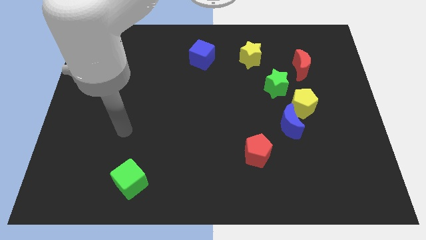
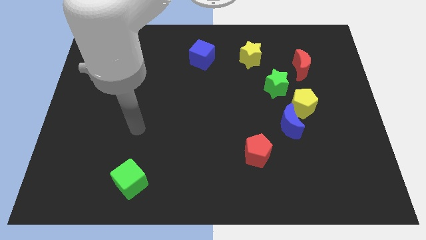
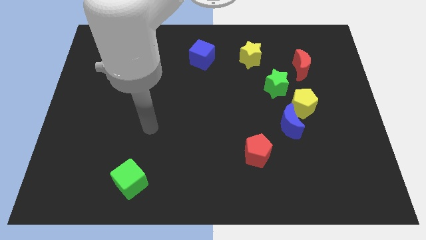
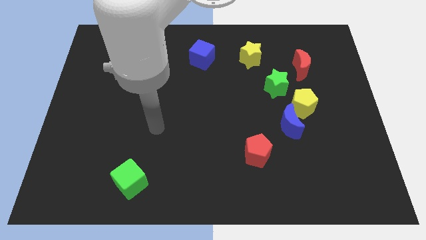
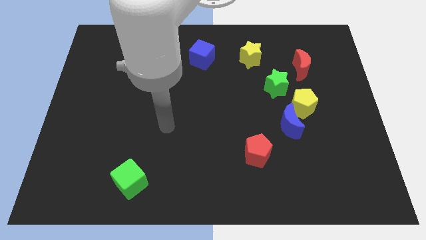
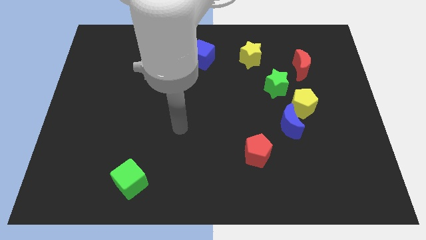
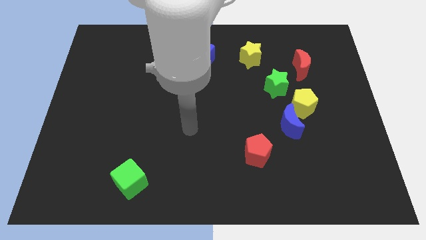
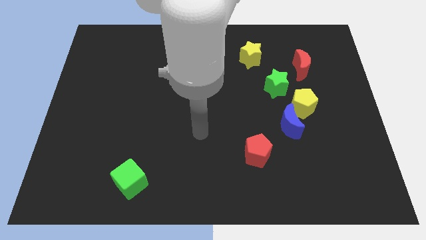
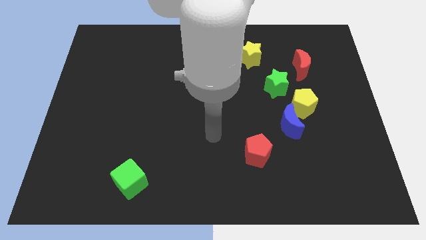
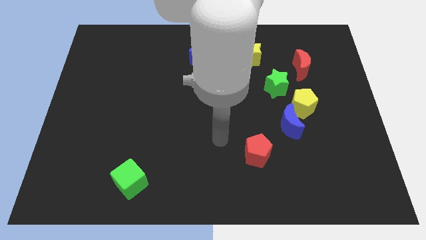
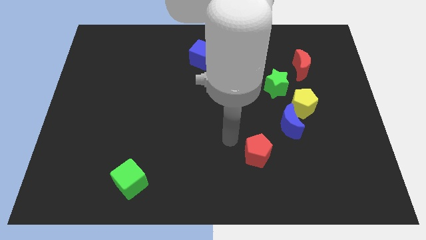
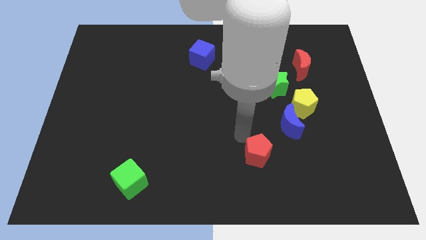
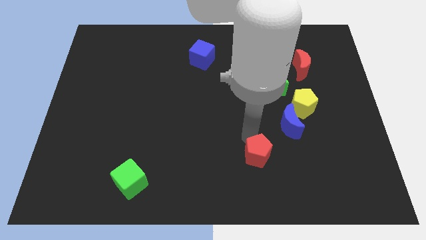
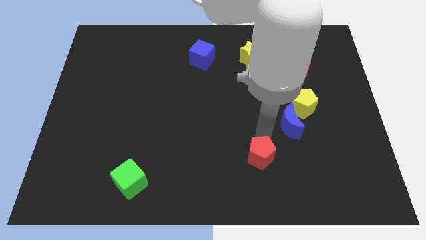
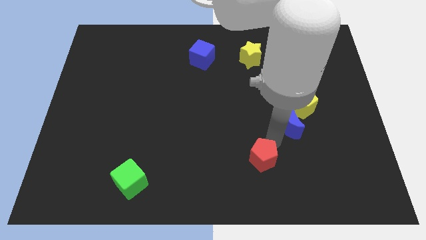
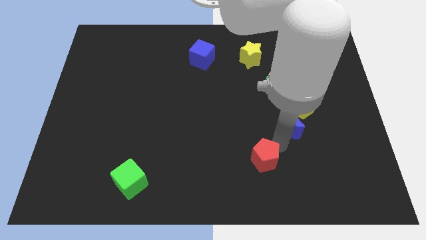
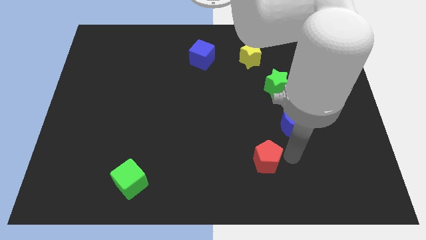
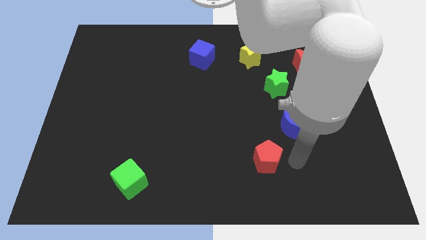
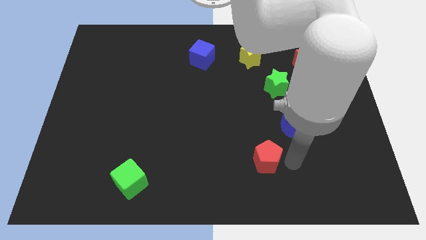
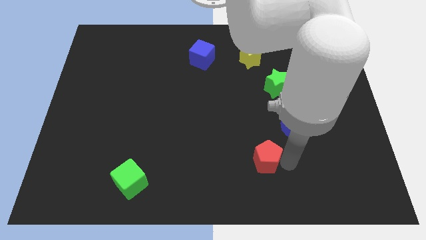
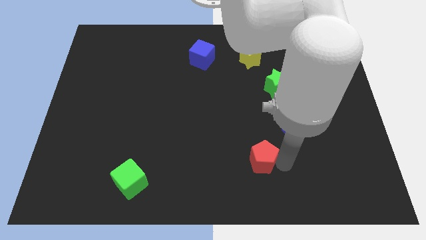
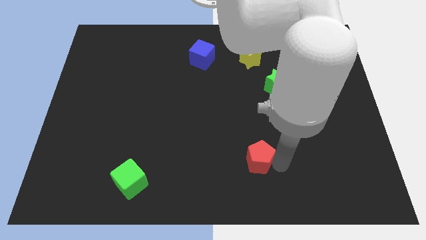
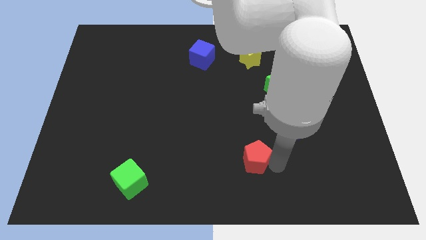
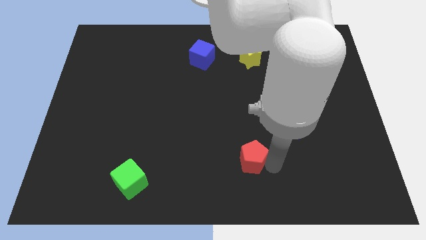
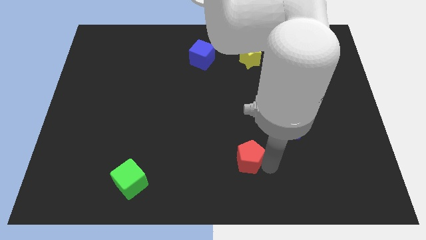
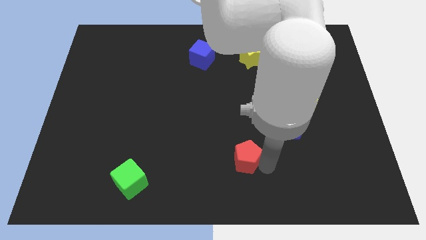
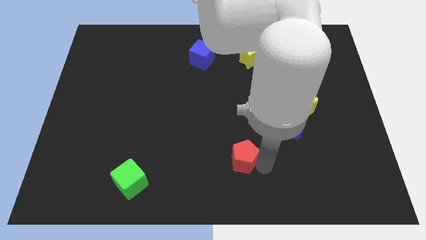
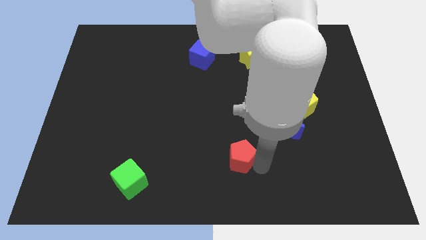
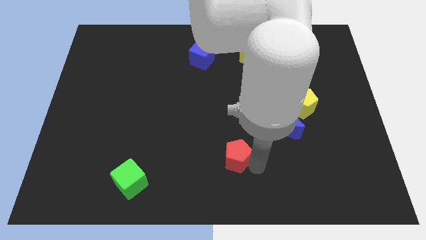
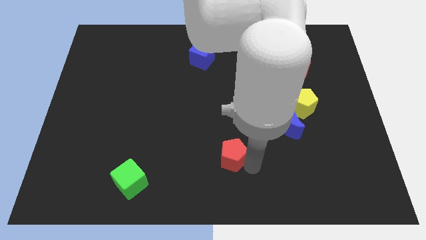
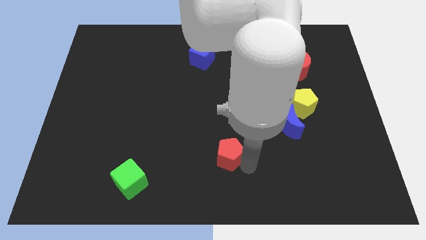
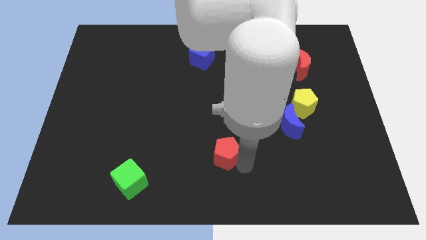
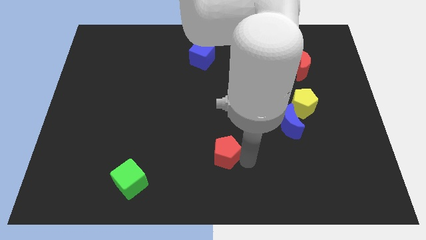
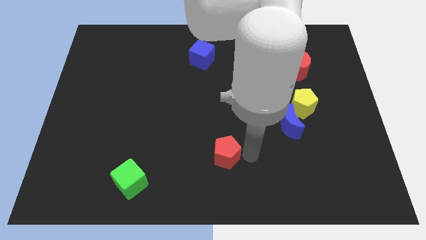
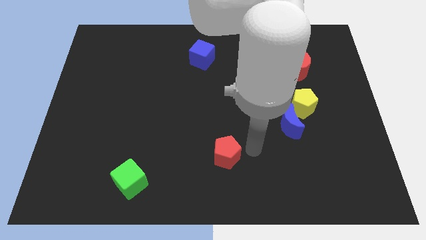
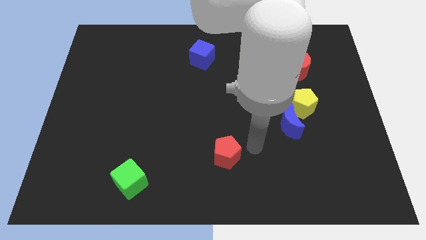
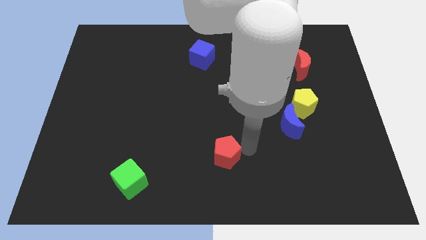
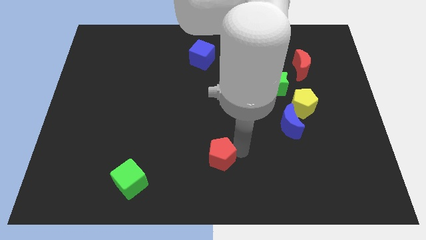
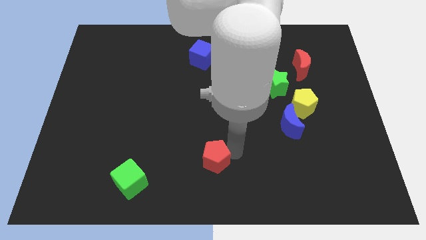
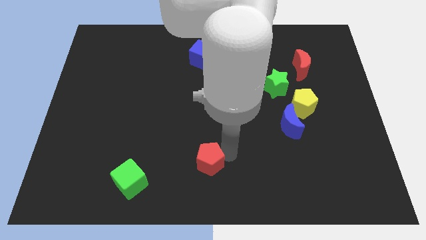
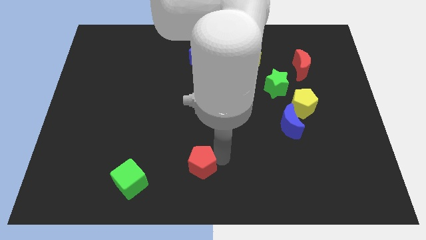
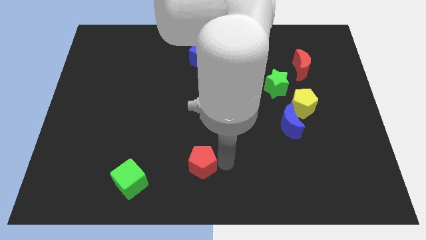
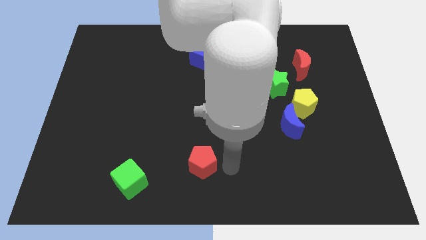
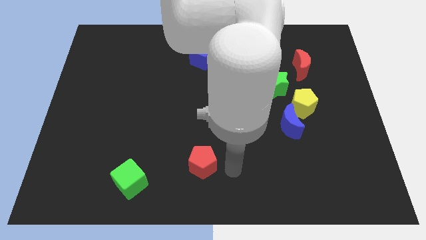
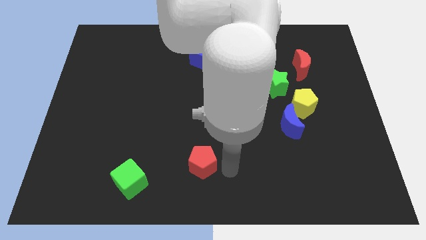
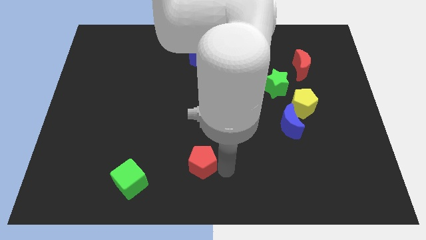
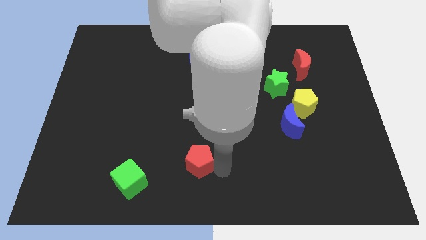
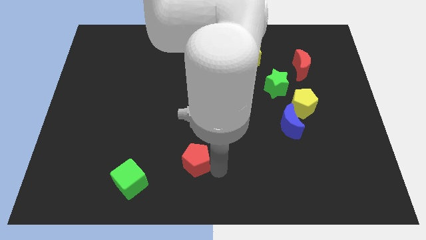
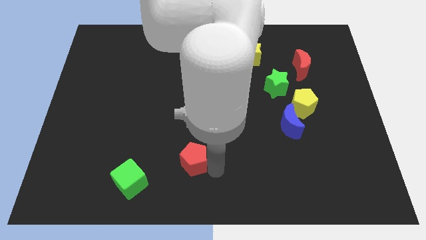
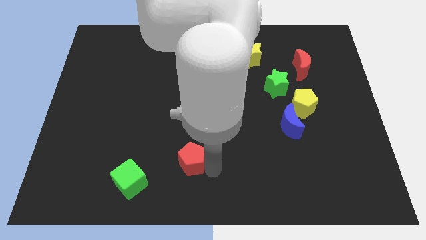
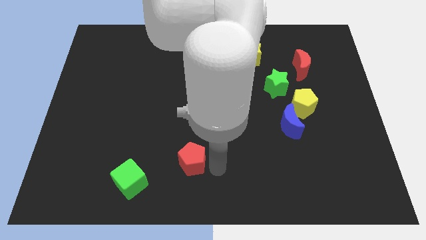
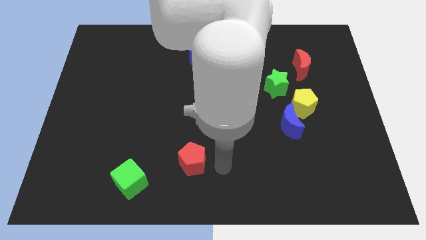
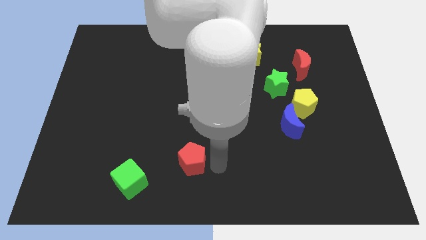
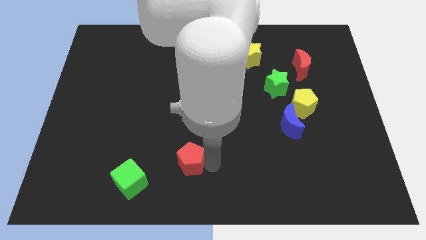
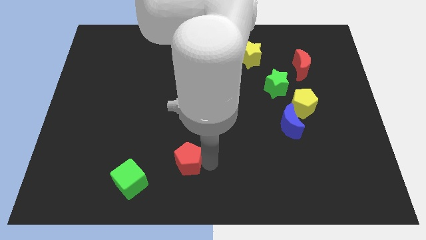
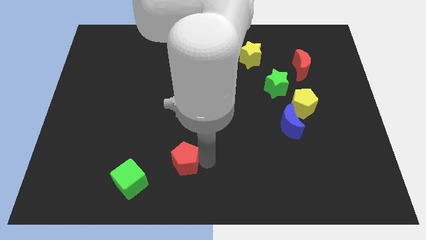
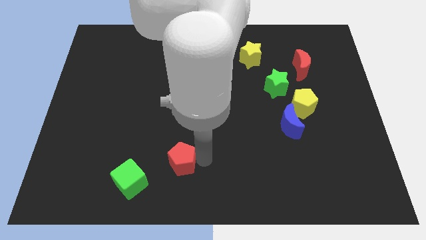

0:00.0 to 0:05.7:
push the red pentagon to the top right side of the green cube

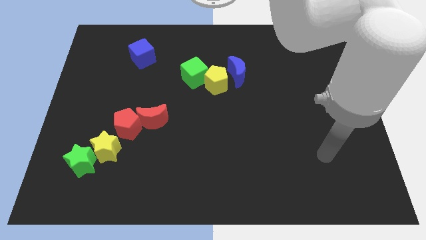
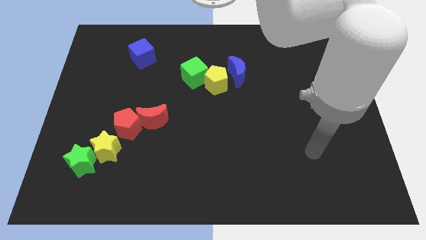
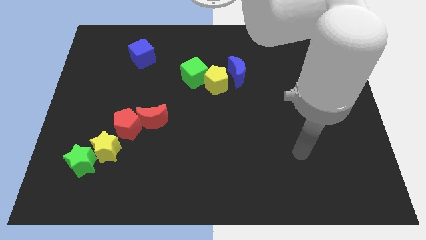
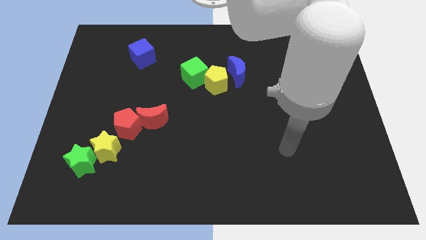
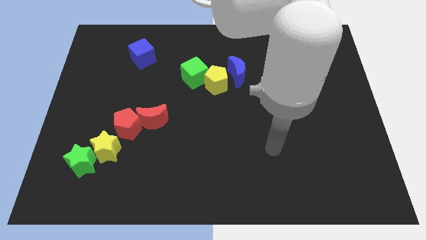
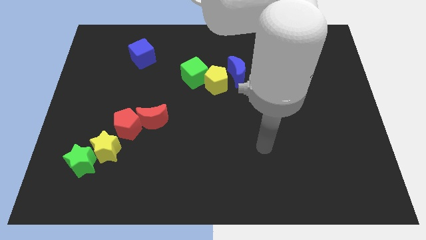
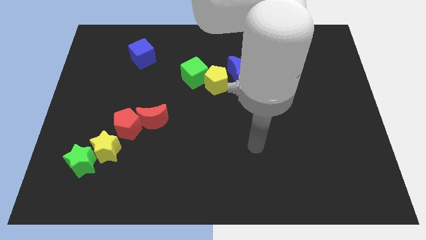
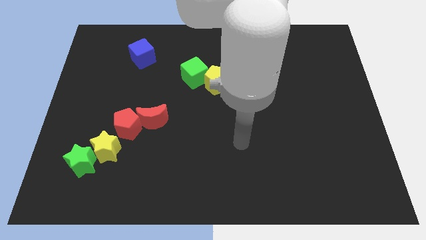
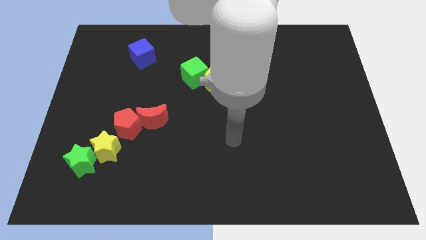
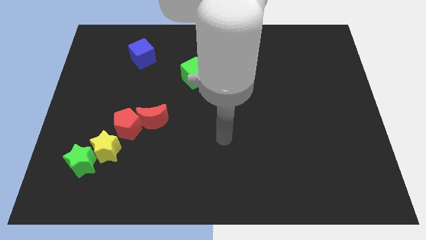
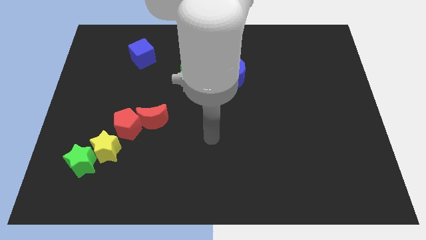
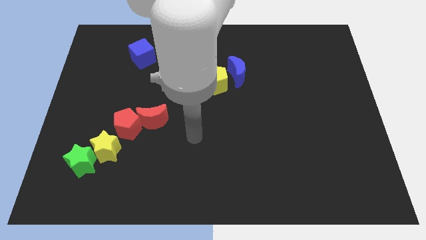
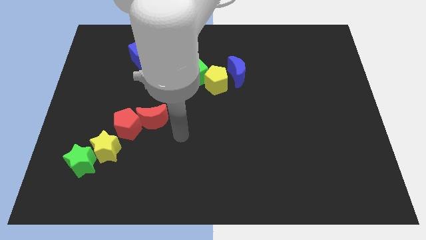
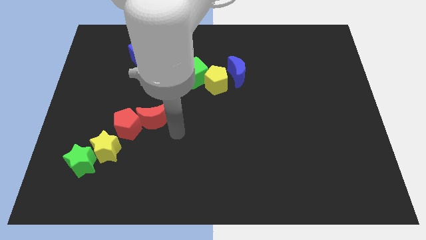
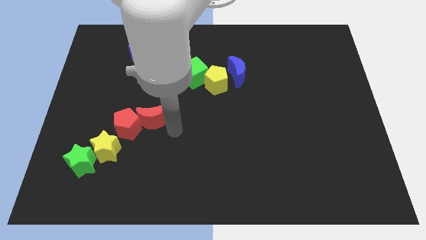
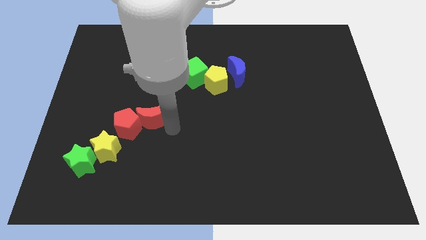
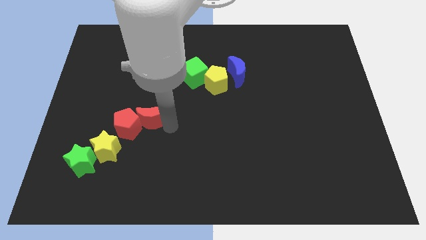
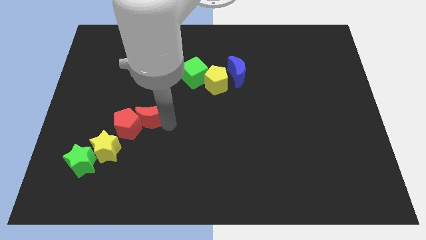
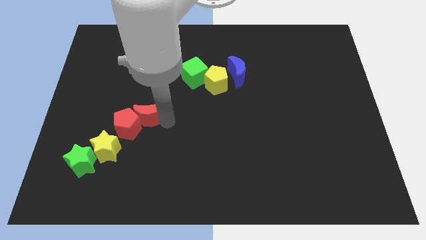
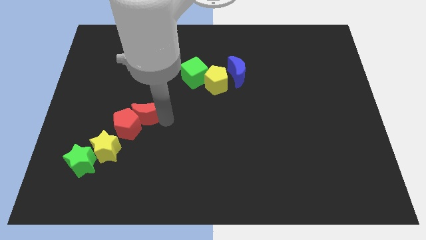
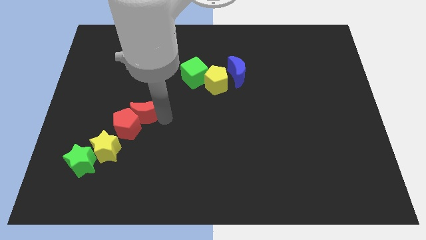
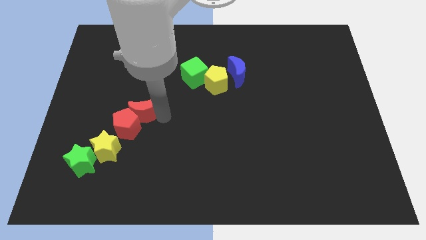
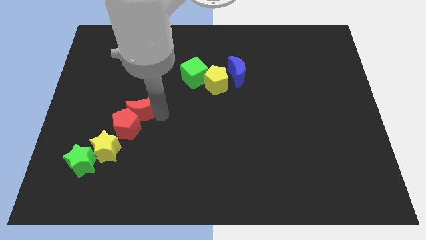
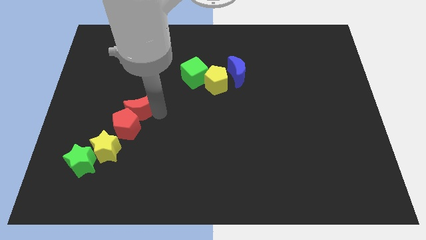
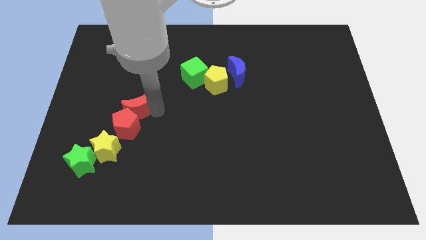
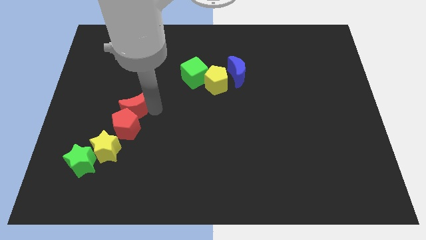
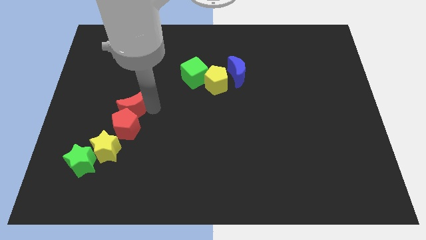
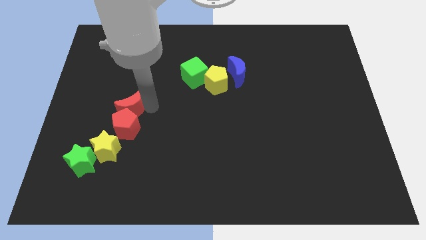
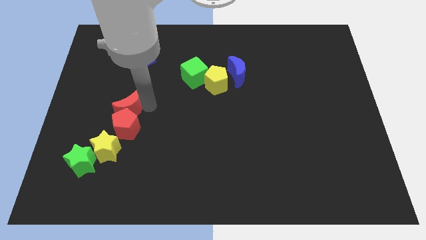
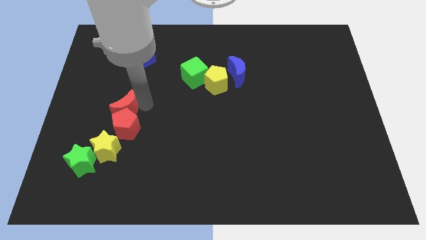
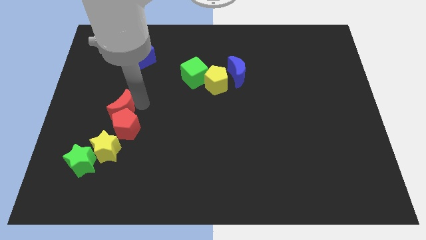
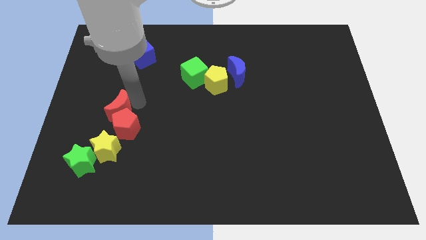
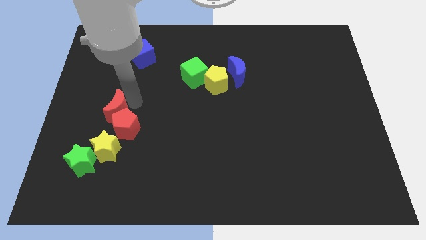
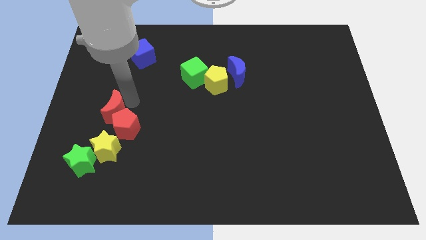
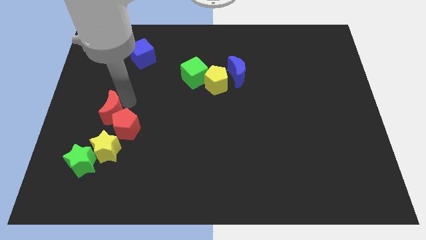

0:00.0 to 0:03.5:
put the red moon above the green star
